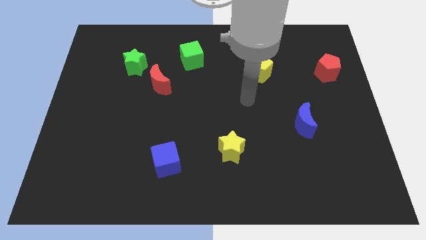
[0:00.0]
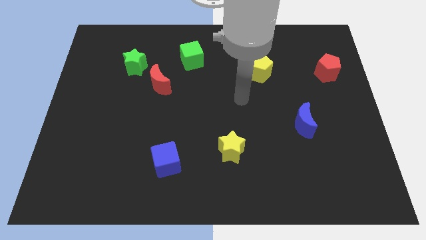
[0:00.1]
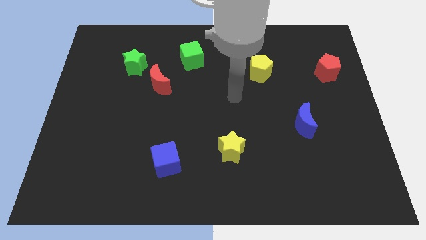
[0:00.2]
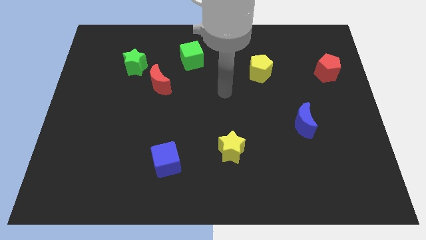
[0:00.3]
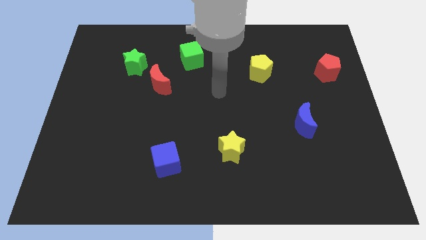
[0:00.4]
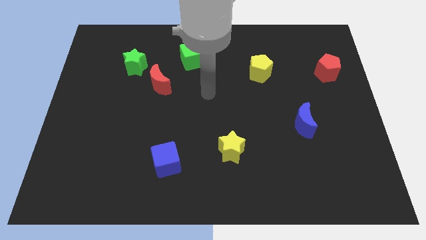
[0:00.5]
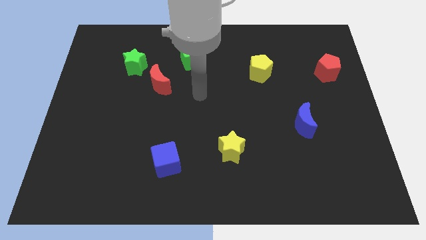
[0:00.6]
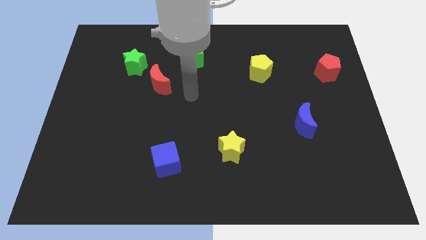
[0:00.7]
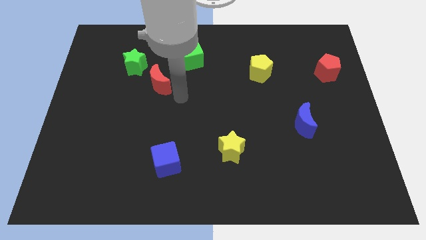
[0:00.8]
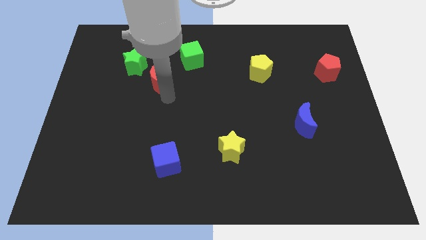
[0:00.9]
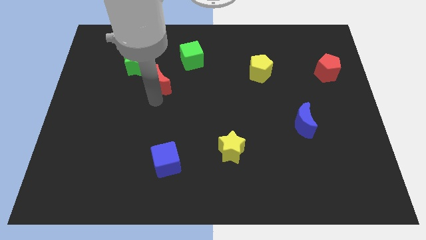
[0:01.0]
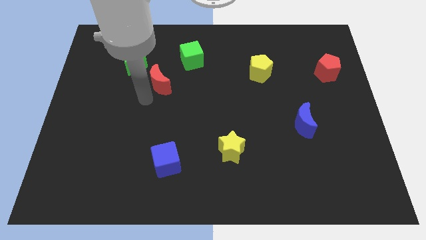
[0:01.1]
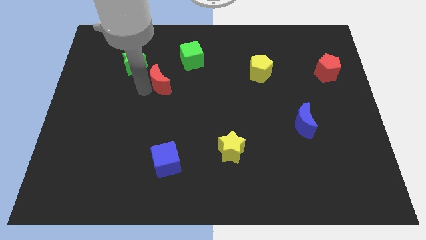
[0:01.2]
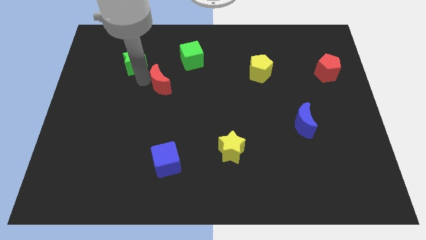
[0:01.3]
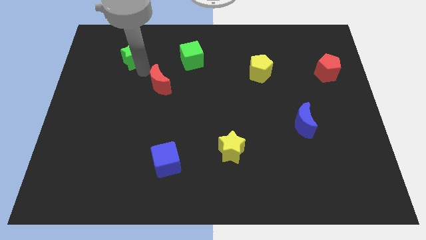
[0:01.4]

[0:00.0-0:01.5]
separate the red moon from the green star

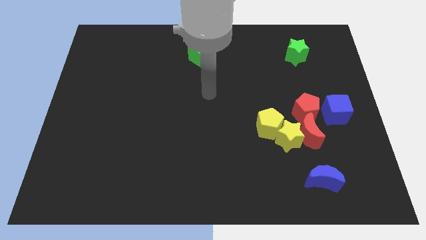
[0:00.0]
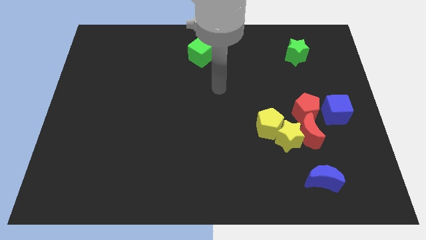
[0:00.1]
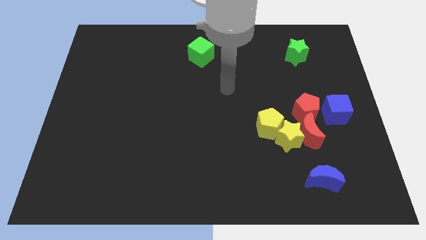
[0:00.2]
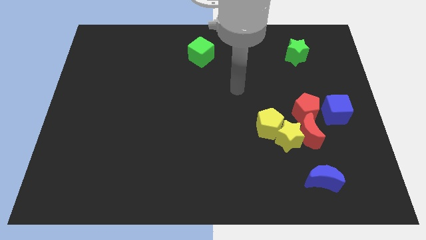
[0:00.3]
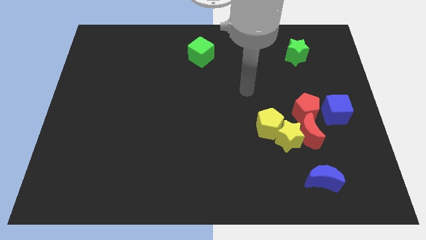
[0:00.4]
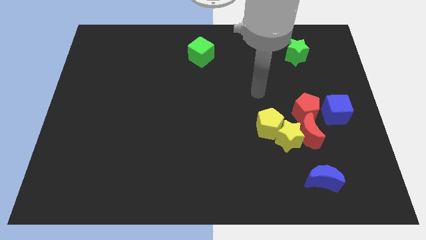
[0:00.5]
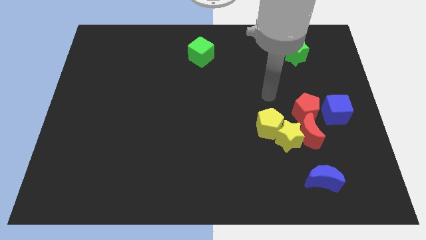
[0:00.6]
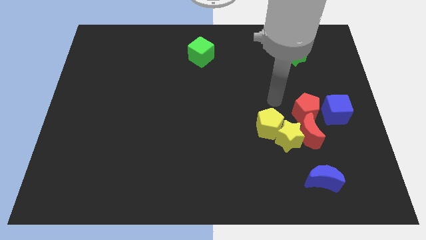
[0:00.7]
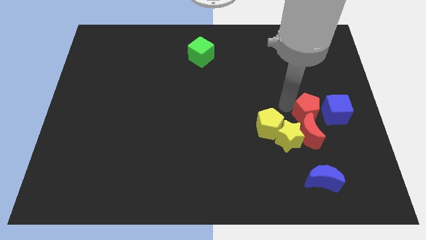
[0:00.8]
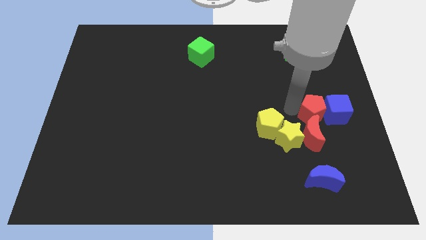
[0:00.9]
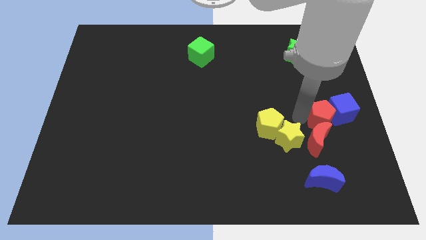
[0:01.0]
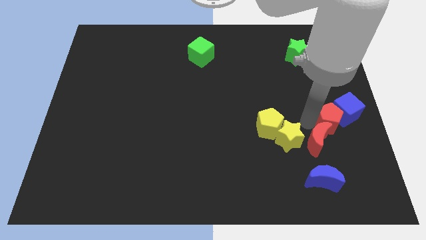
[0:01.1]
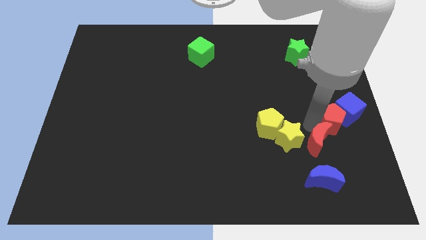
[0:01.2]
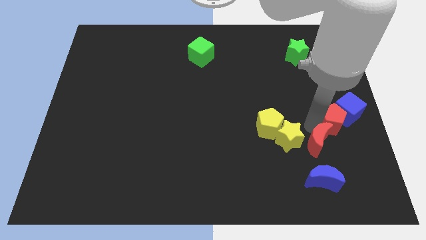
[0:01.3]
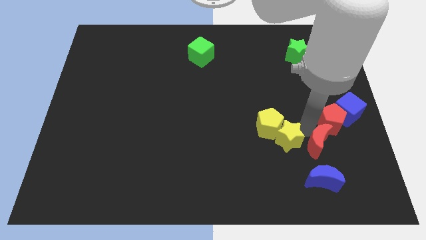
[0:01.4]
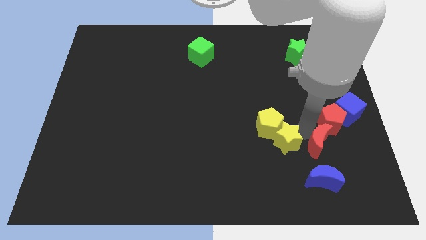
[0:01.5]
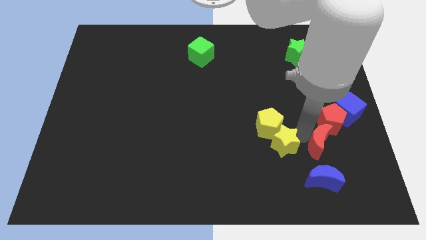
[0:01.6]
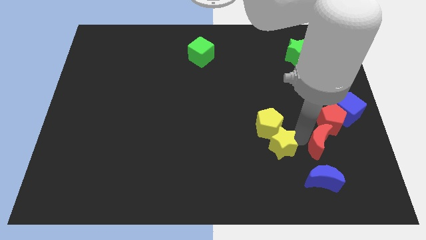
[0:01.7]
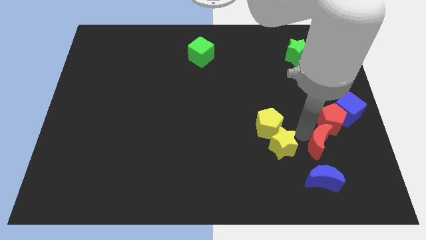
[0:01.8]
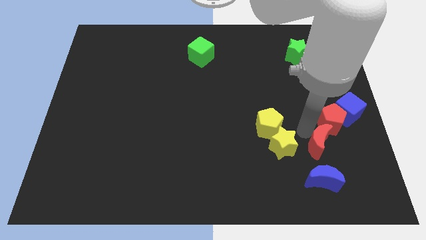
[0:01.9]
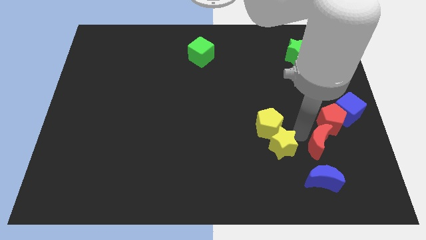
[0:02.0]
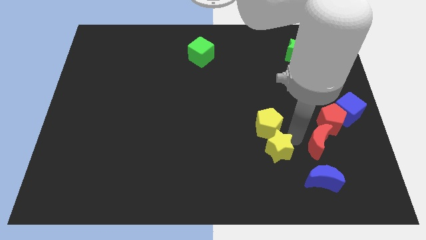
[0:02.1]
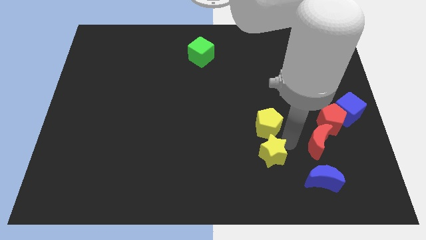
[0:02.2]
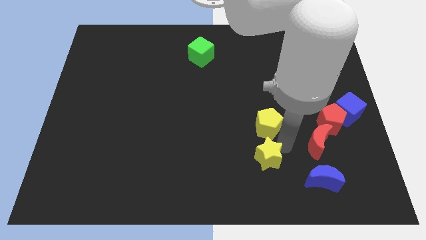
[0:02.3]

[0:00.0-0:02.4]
separate the yellow star from the red moon, yellow pentagon, and red pentagon

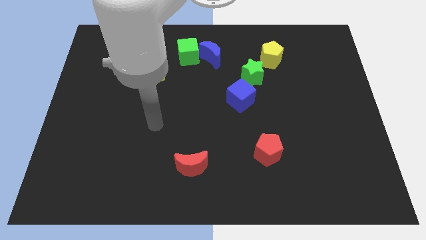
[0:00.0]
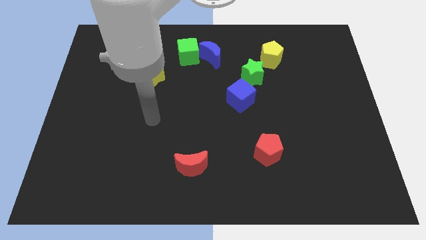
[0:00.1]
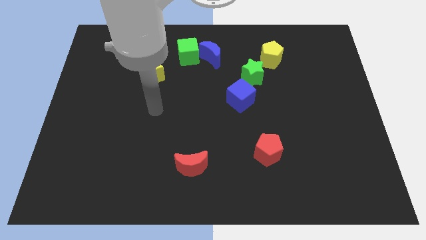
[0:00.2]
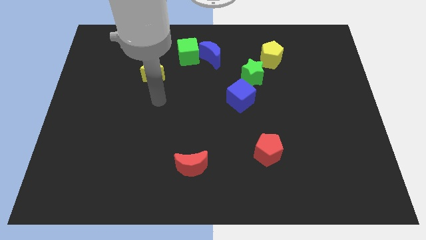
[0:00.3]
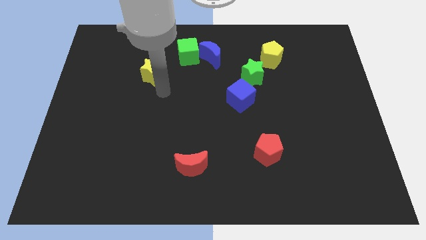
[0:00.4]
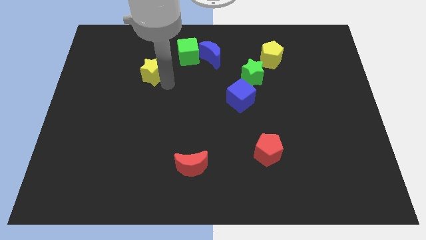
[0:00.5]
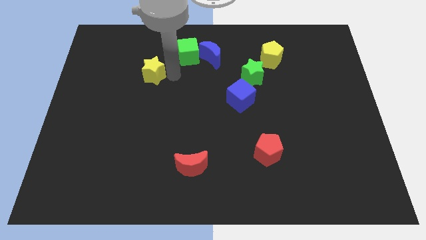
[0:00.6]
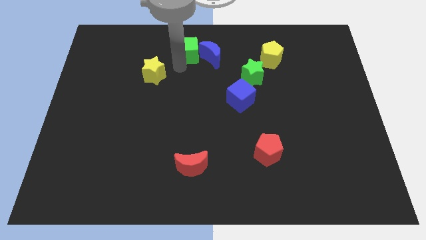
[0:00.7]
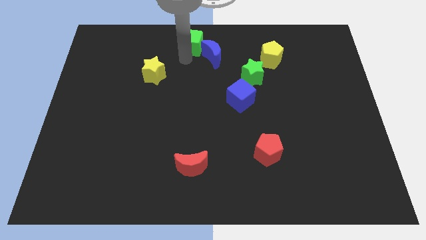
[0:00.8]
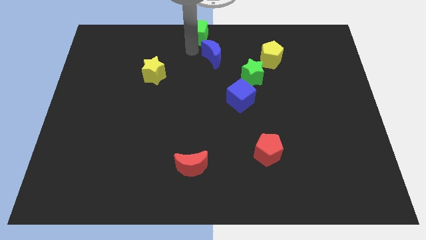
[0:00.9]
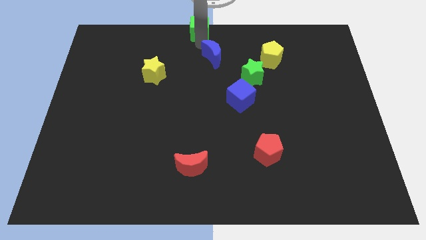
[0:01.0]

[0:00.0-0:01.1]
pull the blue moon apart from the green cube

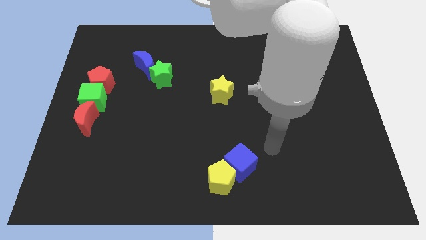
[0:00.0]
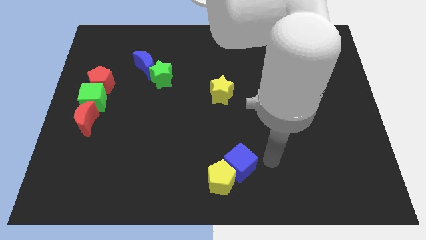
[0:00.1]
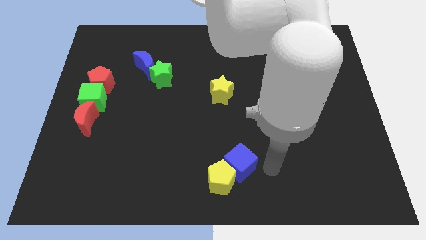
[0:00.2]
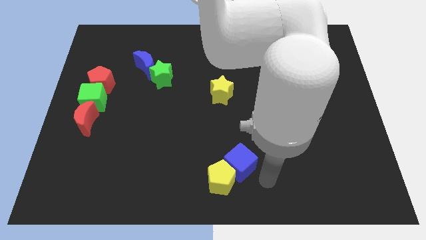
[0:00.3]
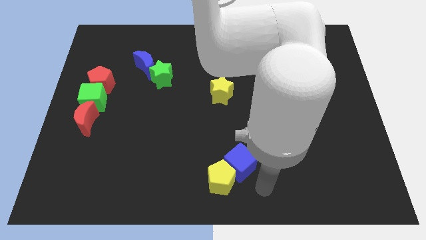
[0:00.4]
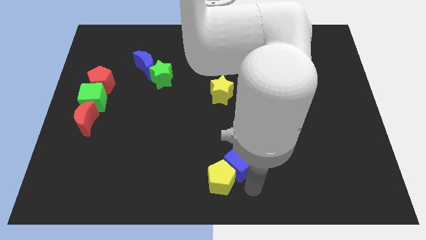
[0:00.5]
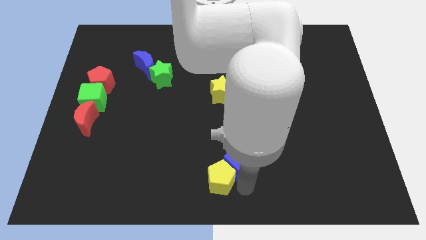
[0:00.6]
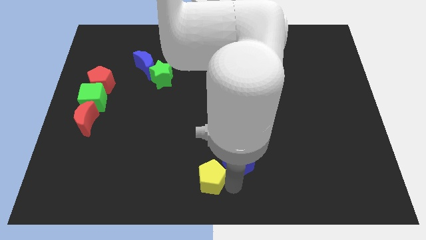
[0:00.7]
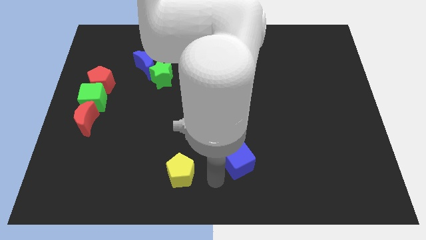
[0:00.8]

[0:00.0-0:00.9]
pull the blue cube apart from the yellow pentagon

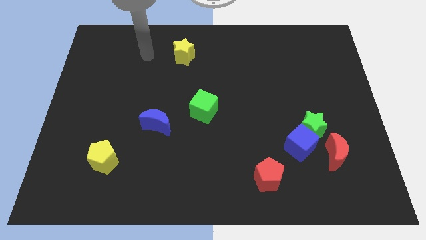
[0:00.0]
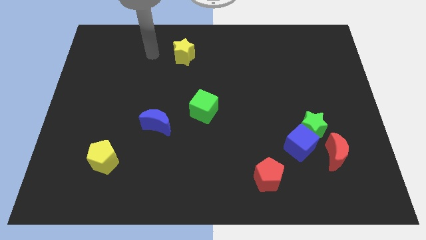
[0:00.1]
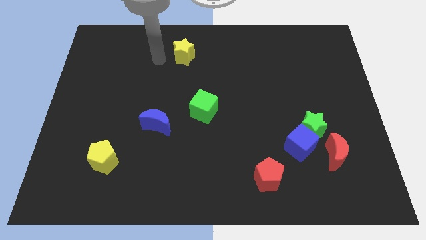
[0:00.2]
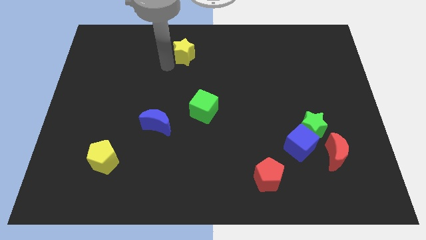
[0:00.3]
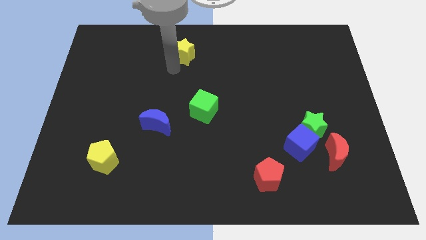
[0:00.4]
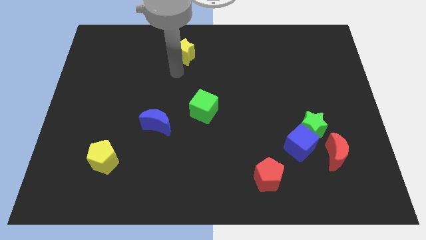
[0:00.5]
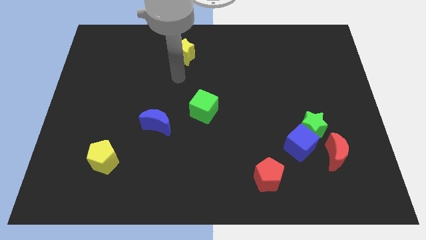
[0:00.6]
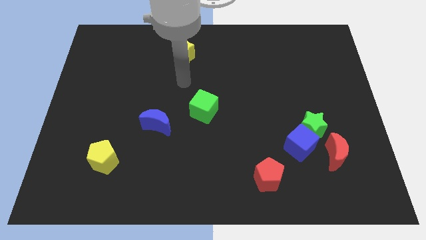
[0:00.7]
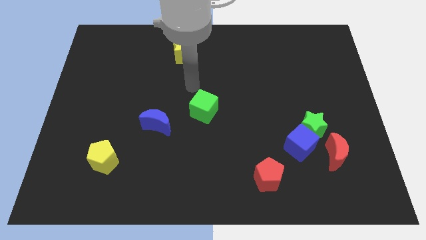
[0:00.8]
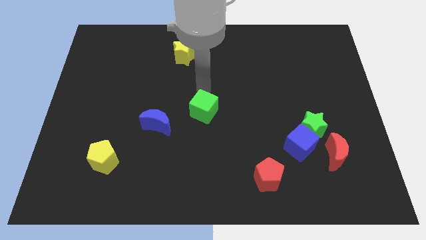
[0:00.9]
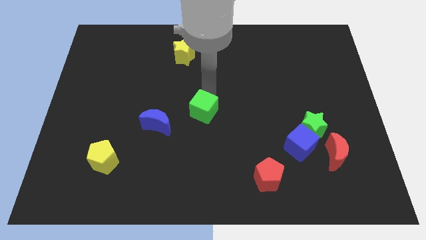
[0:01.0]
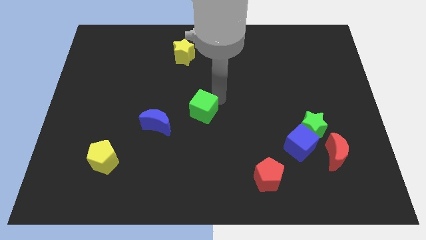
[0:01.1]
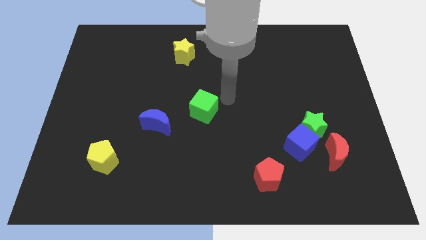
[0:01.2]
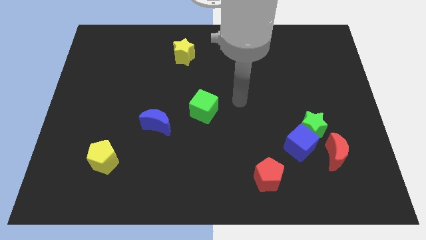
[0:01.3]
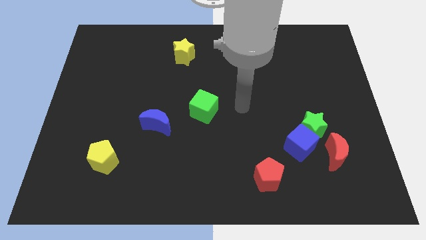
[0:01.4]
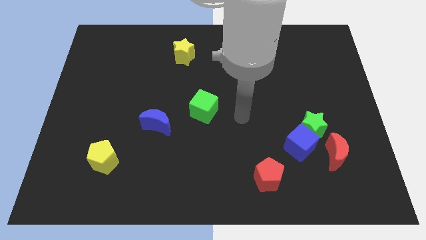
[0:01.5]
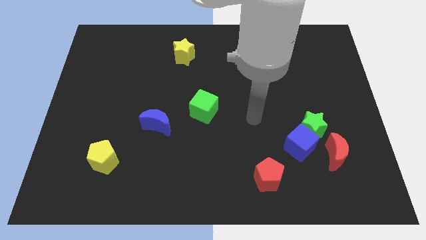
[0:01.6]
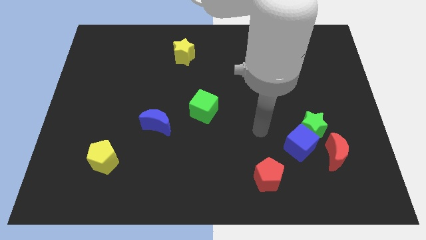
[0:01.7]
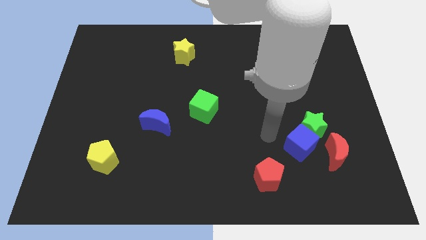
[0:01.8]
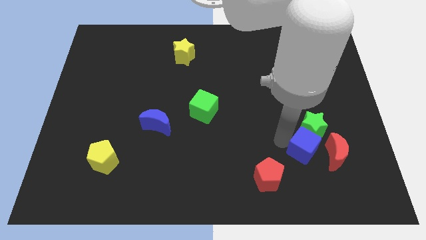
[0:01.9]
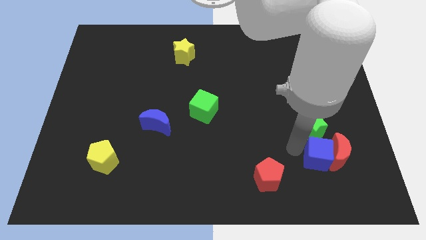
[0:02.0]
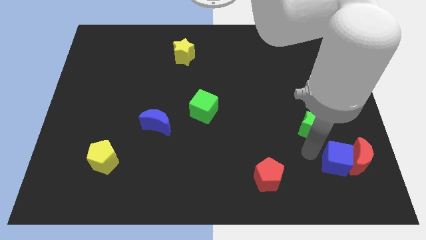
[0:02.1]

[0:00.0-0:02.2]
separate the green star from the blue cube and red moon

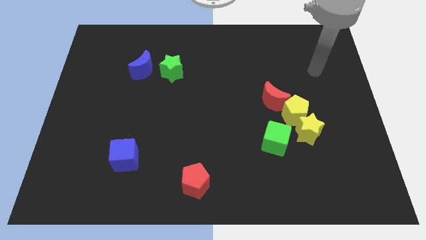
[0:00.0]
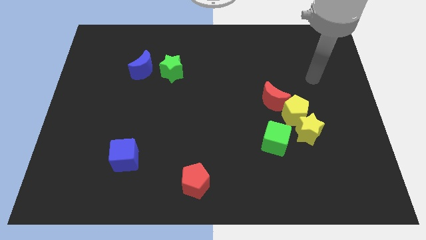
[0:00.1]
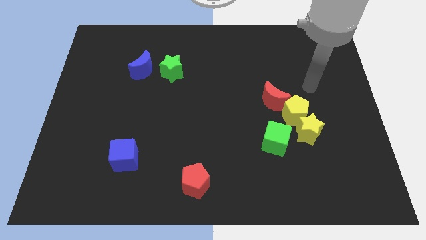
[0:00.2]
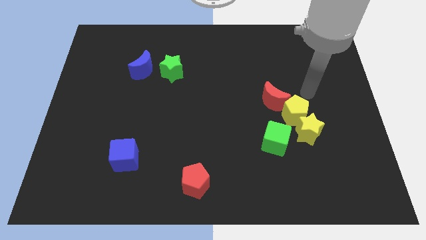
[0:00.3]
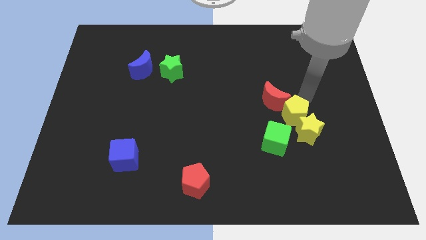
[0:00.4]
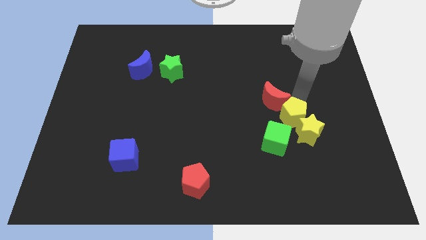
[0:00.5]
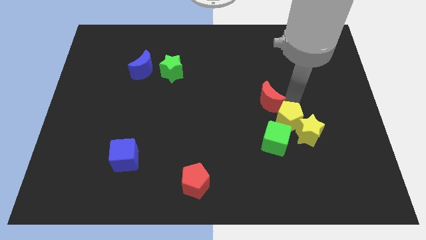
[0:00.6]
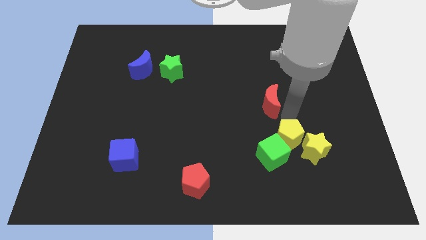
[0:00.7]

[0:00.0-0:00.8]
separate the red moon from the yellow pentagon

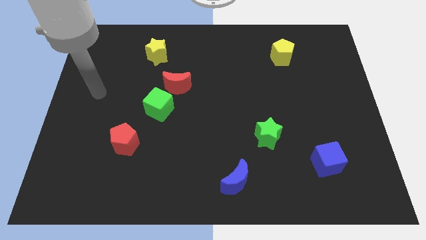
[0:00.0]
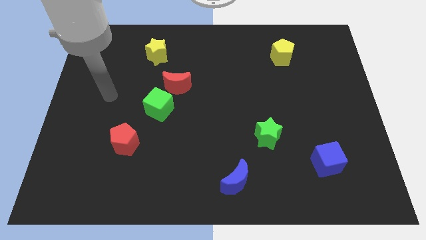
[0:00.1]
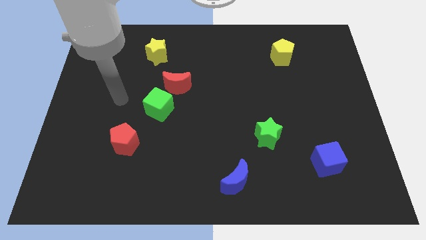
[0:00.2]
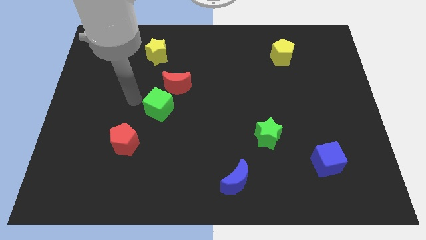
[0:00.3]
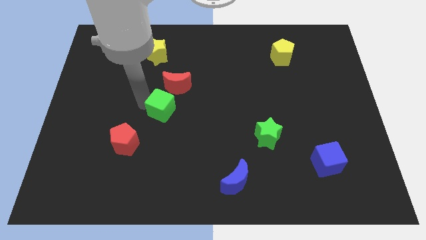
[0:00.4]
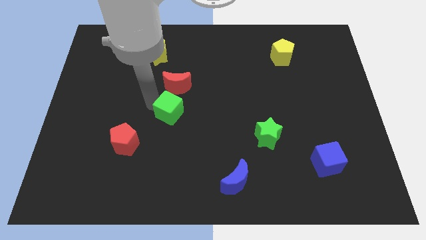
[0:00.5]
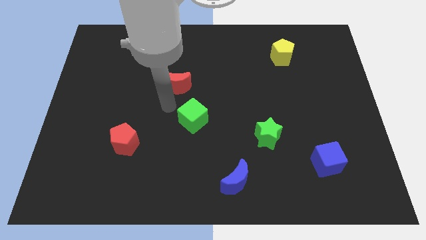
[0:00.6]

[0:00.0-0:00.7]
move the red moon away from the green cube
